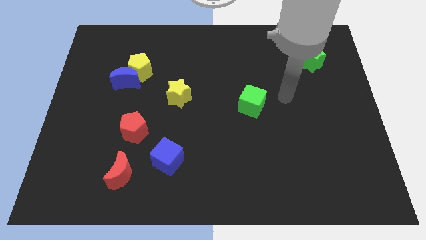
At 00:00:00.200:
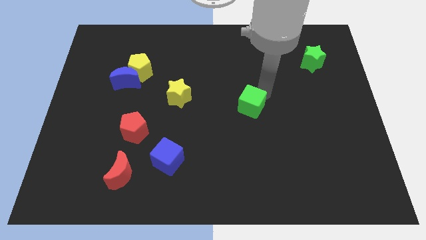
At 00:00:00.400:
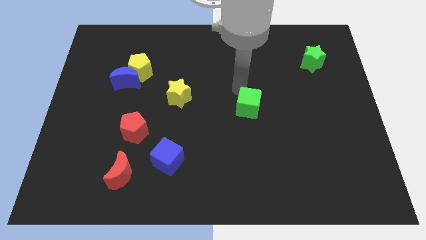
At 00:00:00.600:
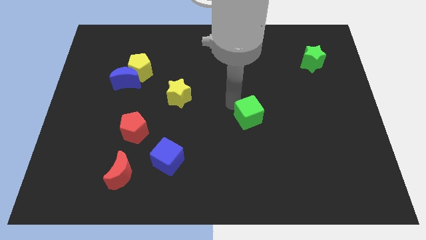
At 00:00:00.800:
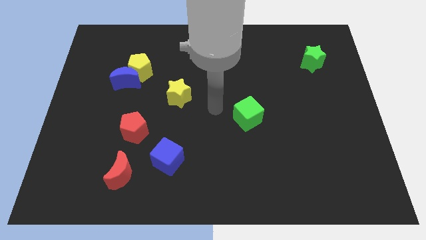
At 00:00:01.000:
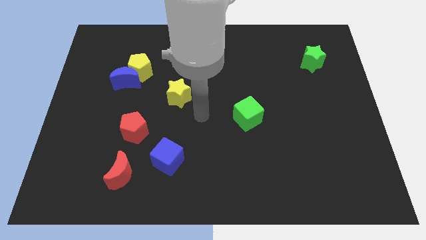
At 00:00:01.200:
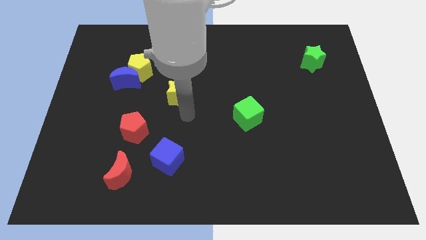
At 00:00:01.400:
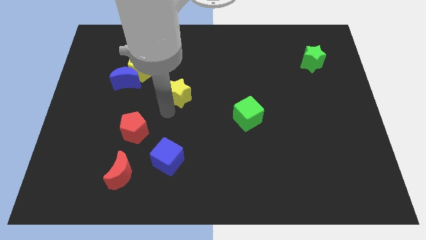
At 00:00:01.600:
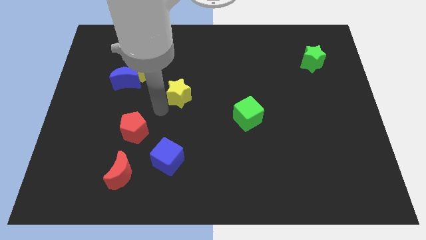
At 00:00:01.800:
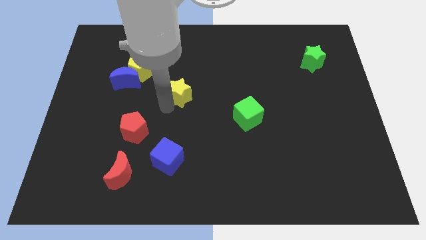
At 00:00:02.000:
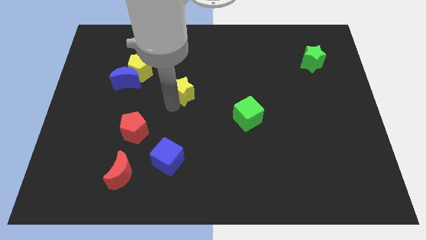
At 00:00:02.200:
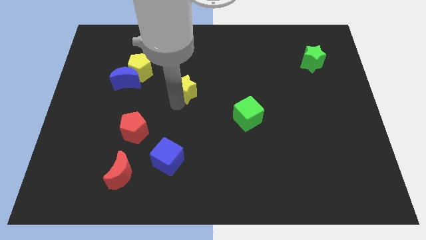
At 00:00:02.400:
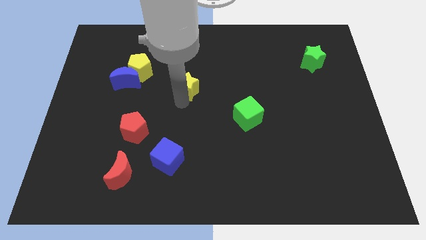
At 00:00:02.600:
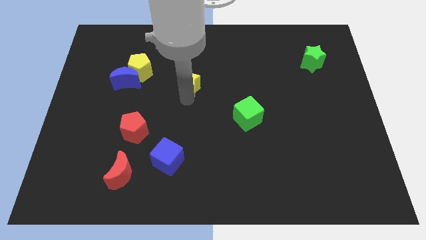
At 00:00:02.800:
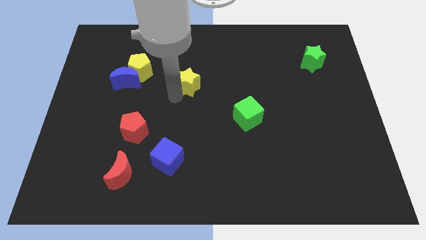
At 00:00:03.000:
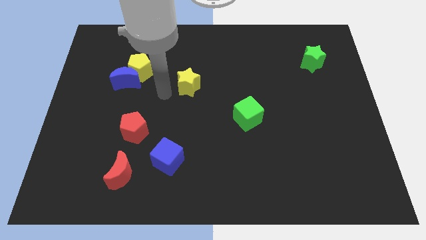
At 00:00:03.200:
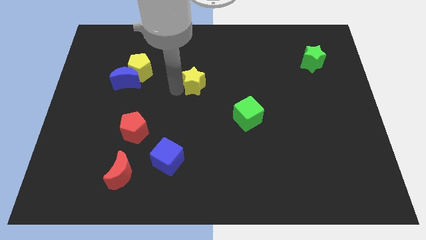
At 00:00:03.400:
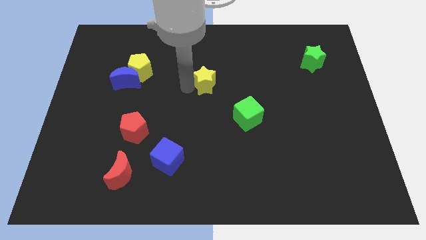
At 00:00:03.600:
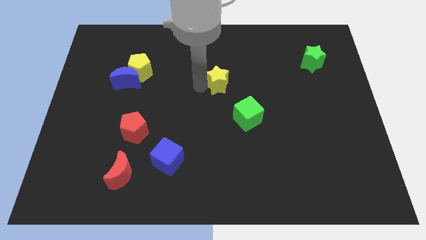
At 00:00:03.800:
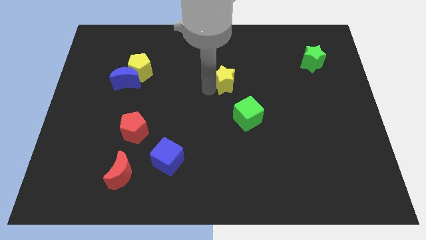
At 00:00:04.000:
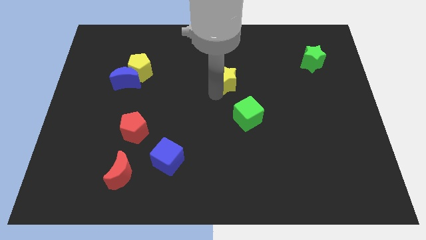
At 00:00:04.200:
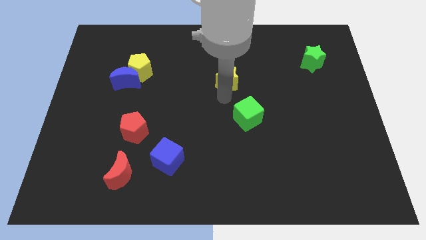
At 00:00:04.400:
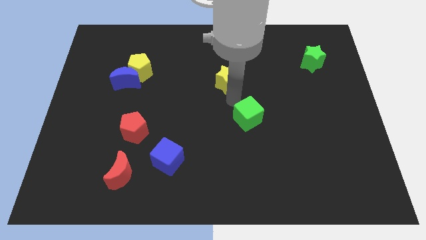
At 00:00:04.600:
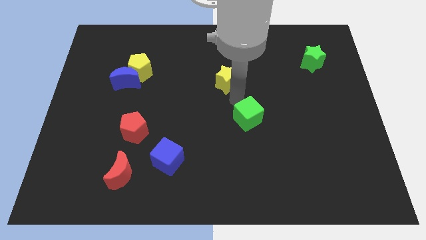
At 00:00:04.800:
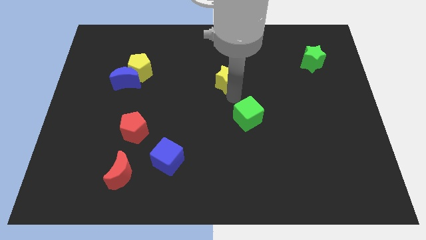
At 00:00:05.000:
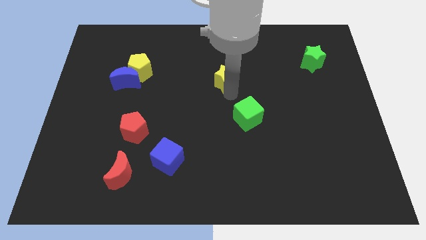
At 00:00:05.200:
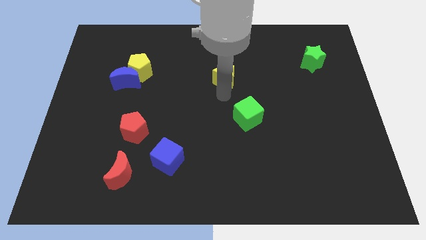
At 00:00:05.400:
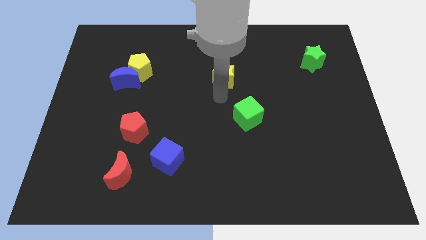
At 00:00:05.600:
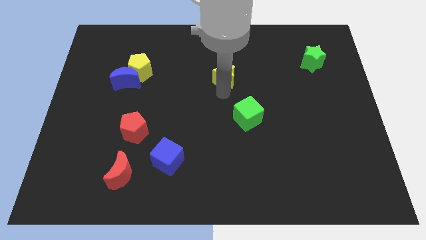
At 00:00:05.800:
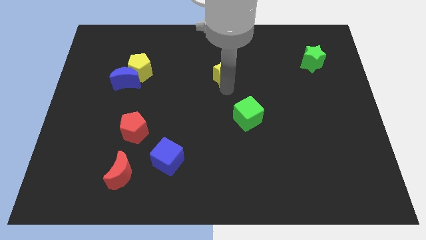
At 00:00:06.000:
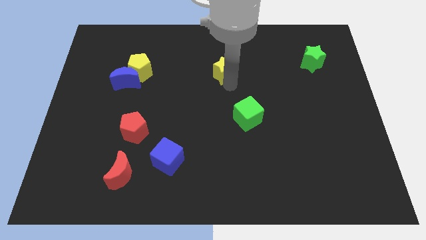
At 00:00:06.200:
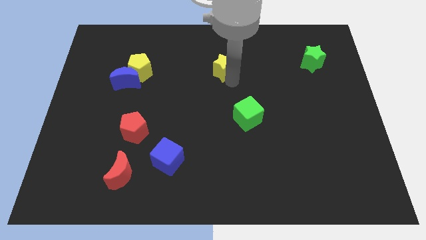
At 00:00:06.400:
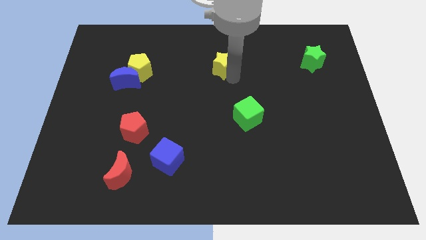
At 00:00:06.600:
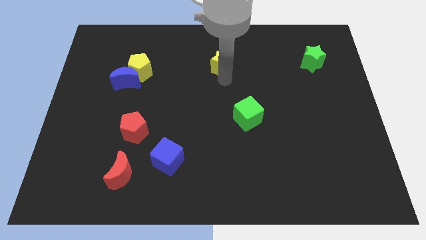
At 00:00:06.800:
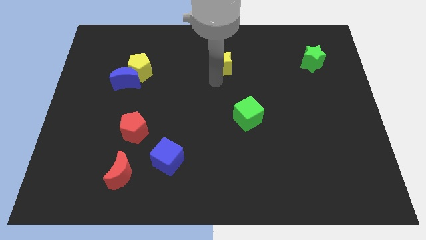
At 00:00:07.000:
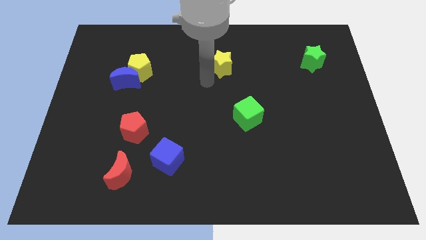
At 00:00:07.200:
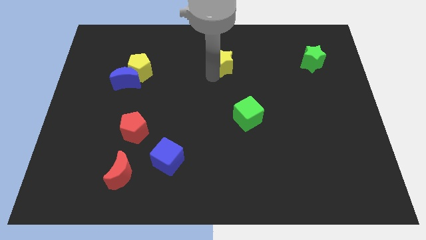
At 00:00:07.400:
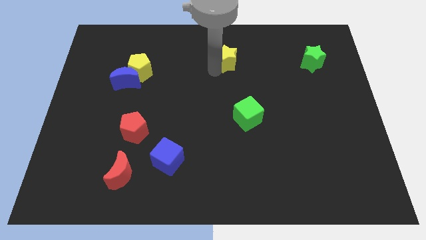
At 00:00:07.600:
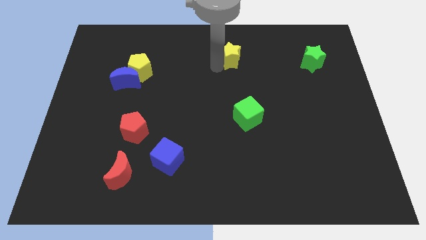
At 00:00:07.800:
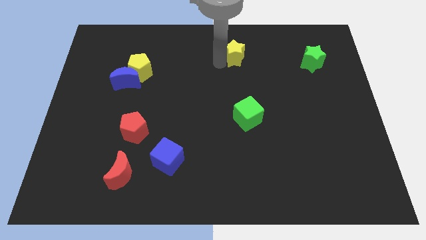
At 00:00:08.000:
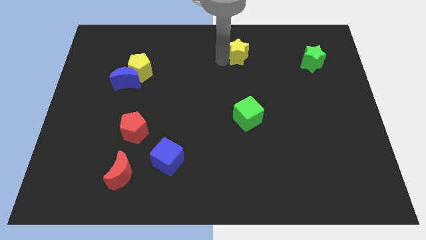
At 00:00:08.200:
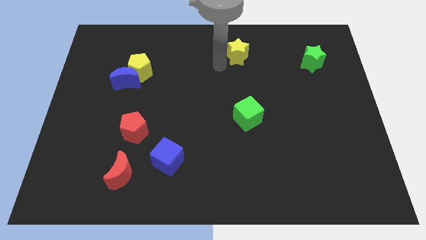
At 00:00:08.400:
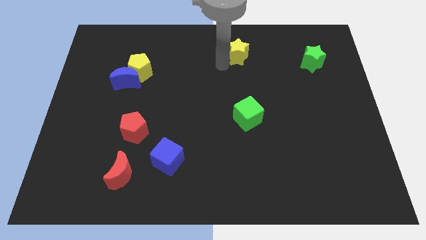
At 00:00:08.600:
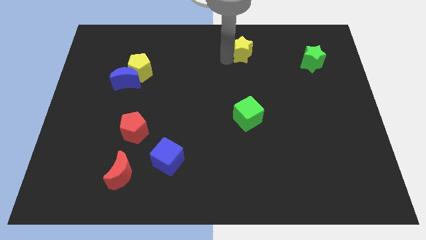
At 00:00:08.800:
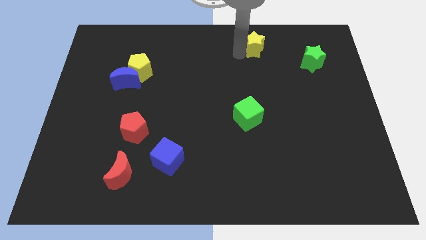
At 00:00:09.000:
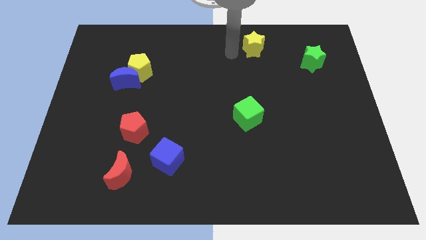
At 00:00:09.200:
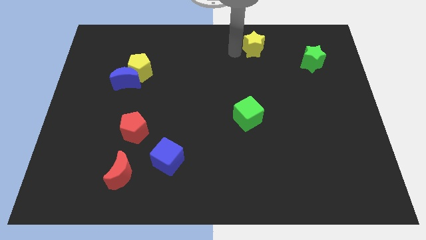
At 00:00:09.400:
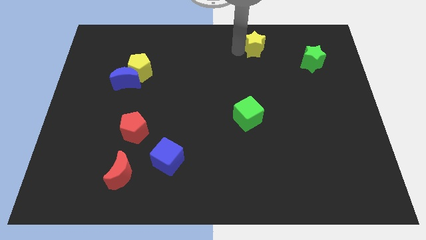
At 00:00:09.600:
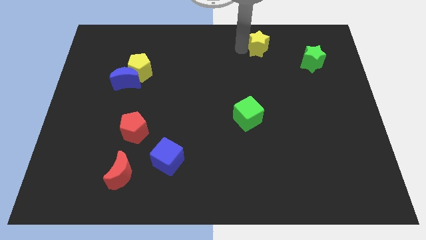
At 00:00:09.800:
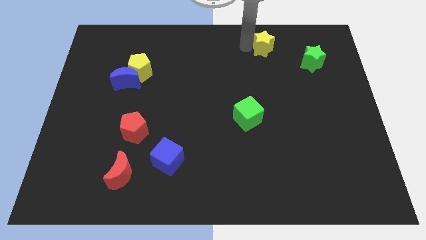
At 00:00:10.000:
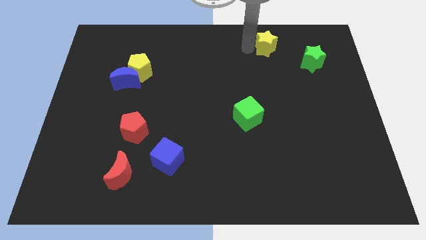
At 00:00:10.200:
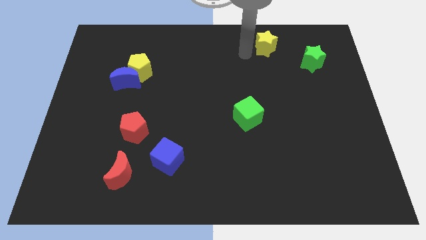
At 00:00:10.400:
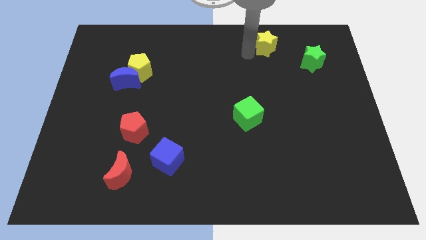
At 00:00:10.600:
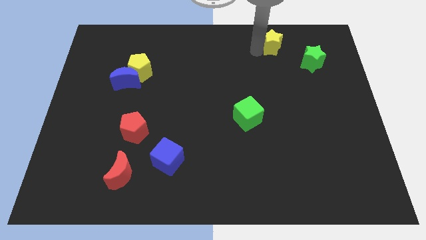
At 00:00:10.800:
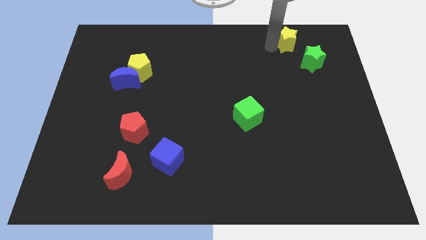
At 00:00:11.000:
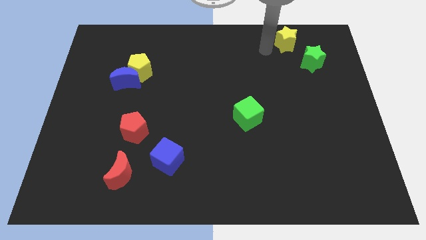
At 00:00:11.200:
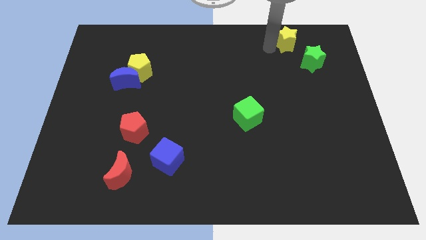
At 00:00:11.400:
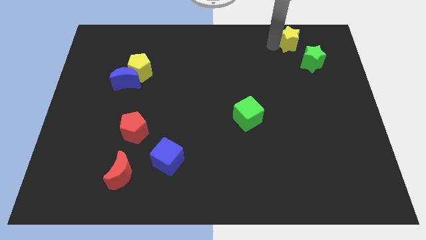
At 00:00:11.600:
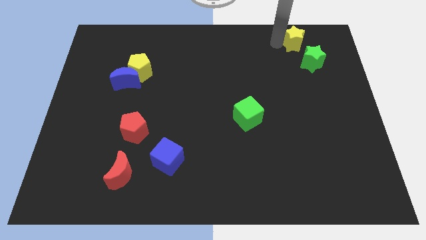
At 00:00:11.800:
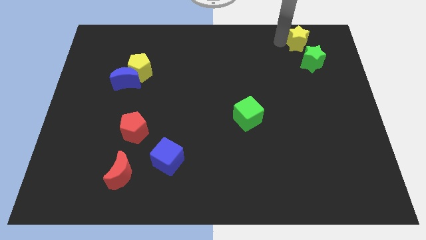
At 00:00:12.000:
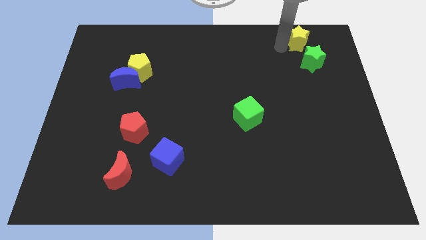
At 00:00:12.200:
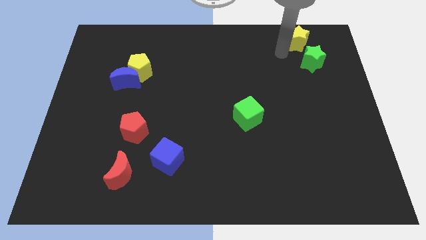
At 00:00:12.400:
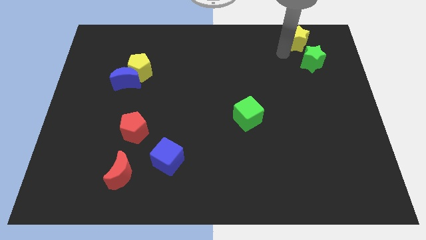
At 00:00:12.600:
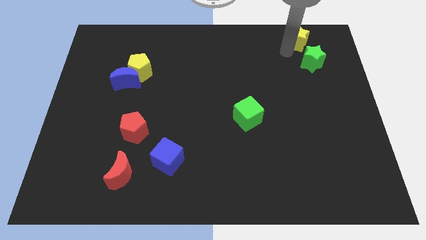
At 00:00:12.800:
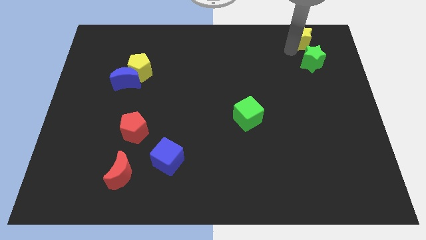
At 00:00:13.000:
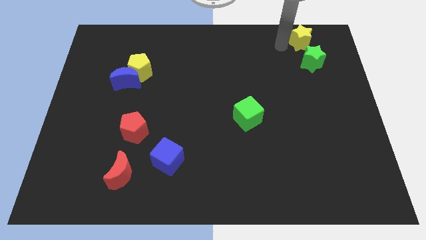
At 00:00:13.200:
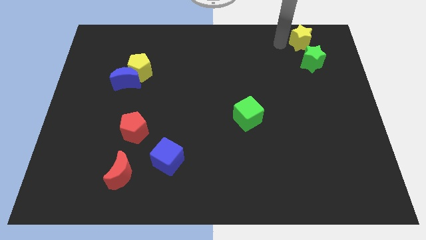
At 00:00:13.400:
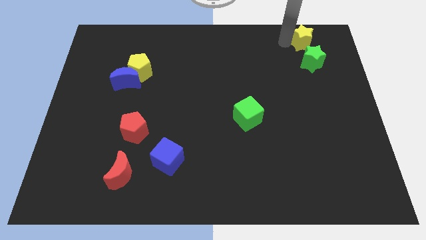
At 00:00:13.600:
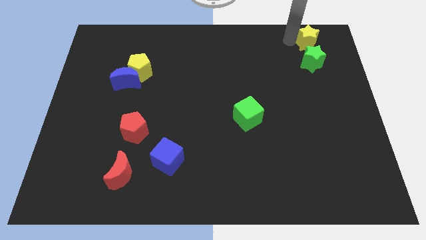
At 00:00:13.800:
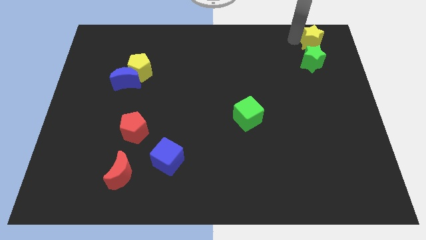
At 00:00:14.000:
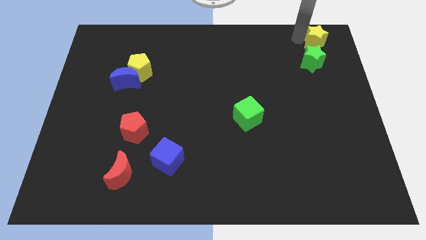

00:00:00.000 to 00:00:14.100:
push the yellow star to the upper right corner
